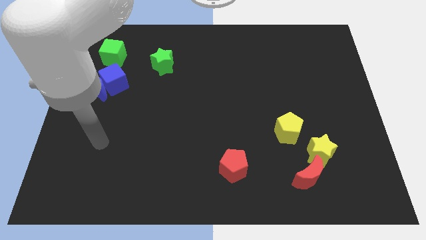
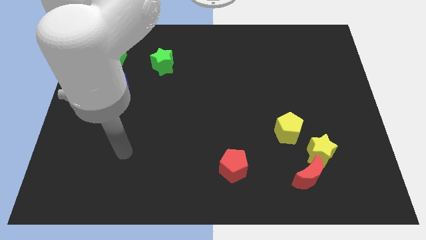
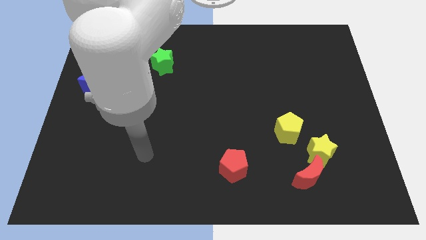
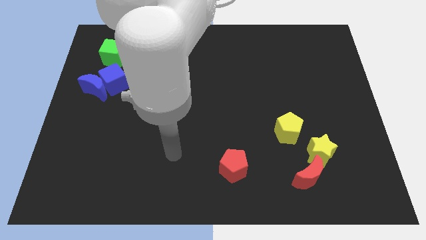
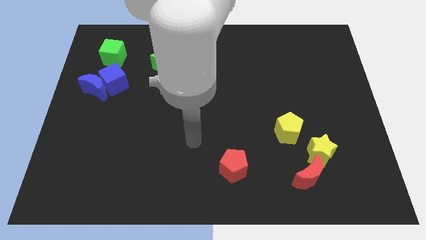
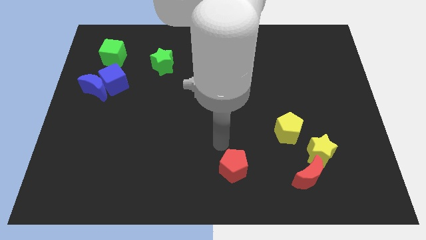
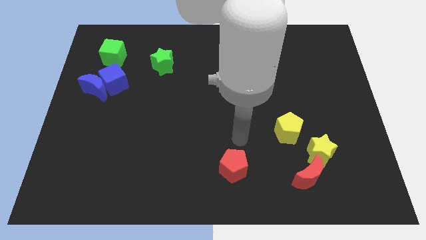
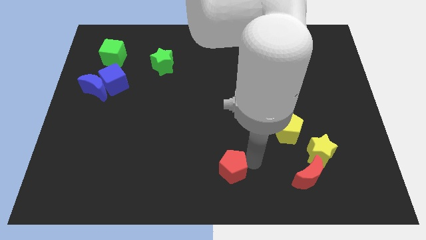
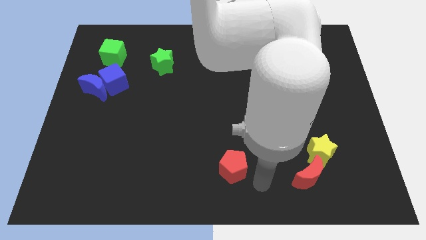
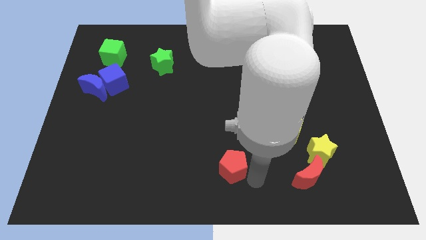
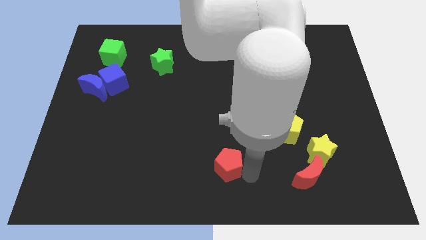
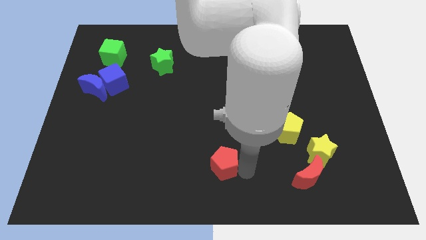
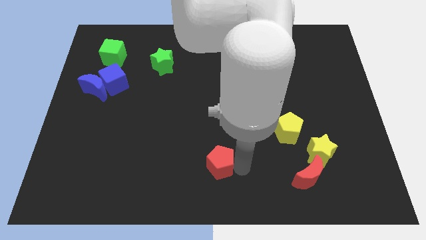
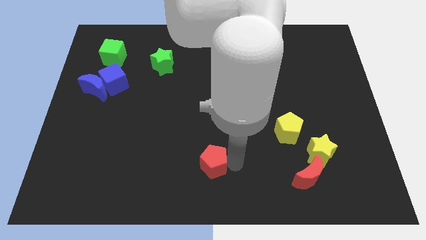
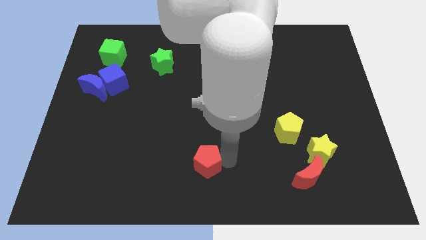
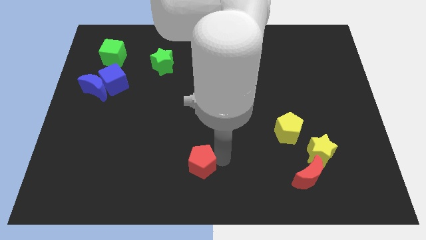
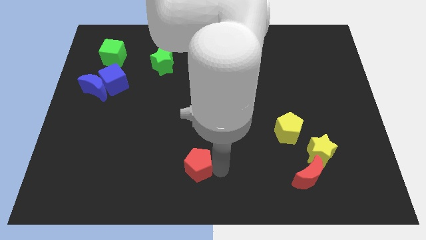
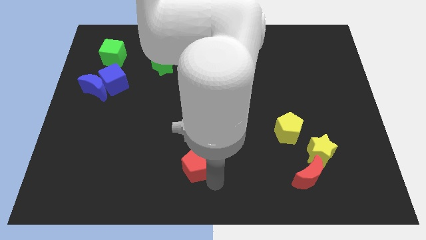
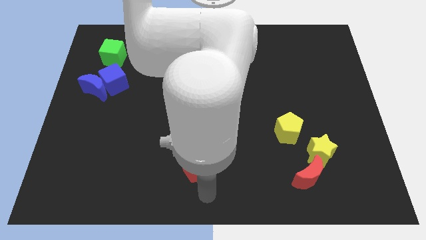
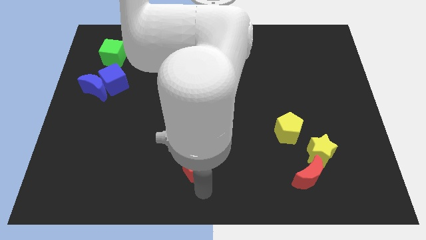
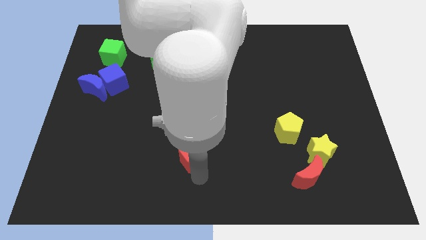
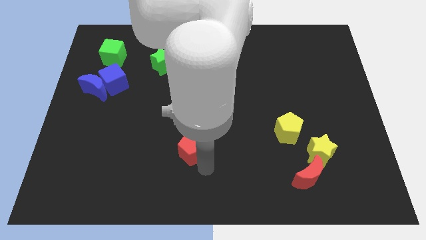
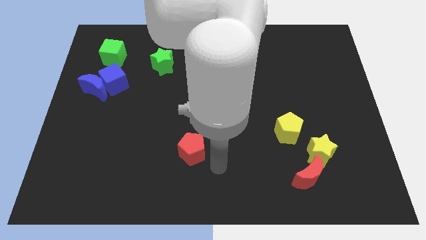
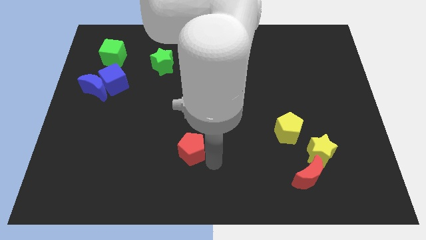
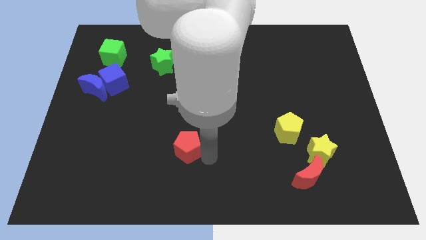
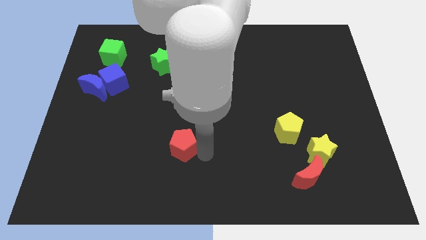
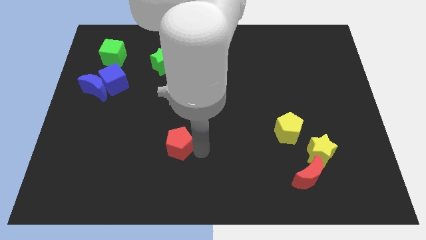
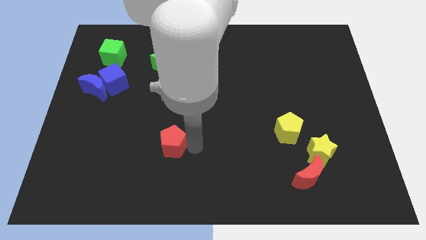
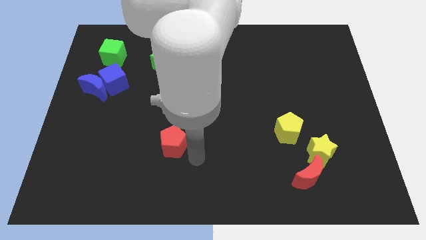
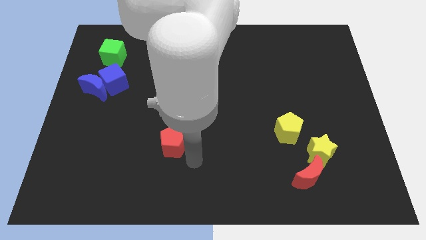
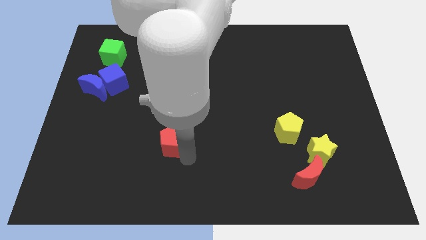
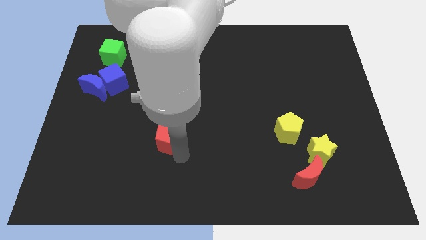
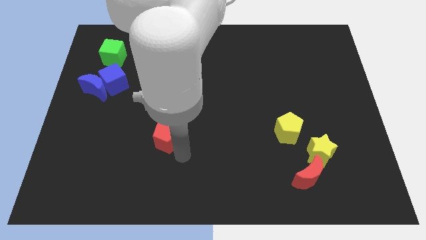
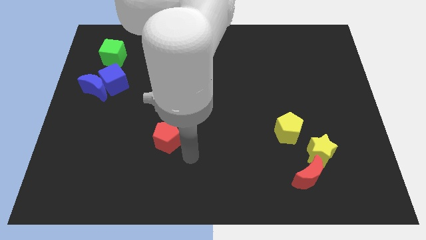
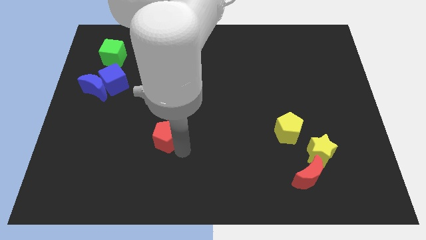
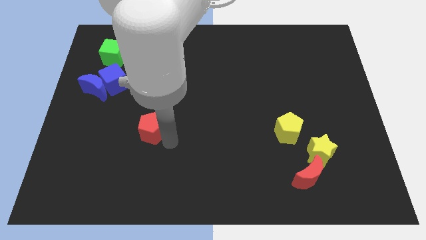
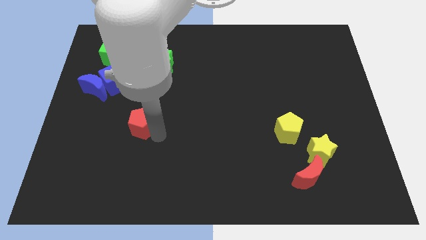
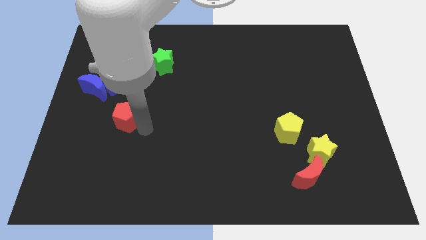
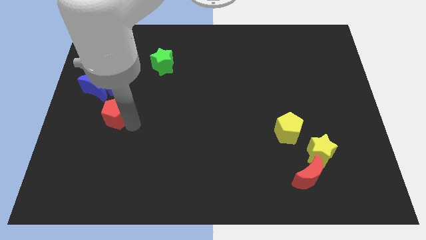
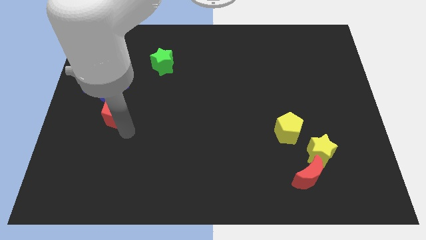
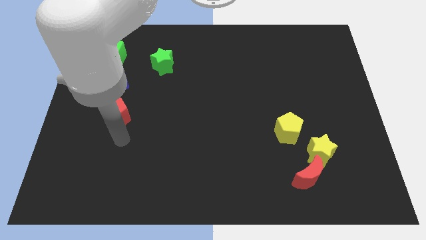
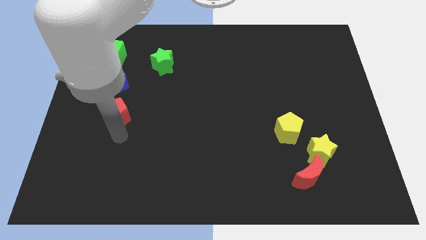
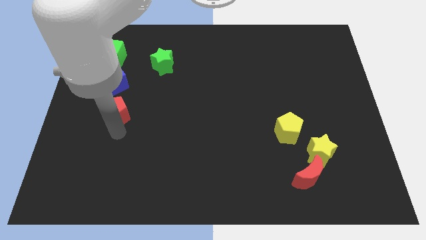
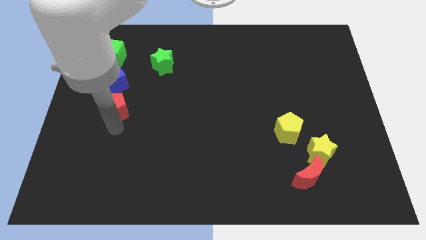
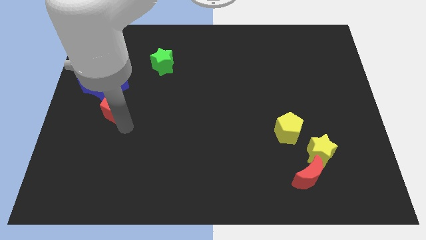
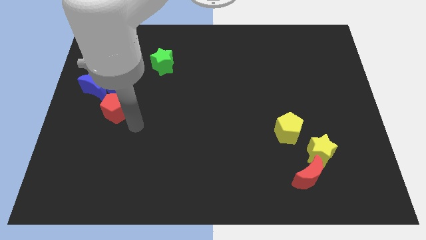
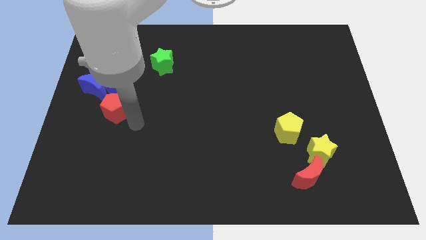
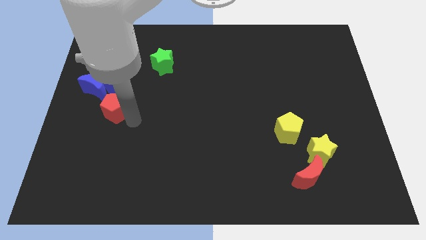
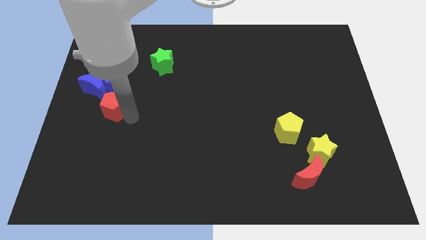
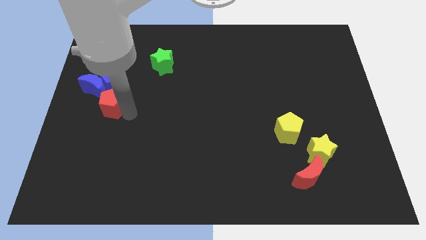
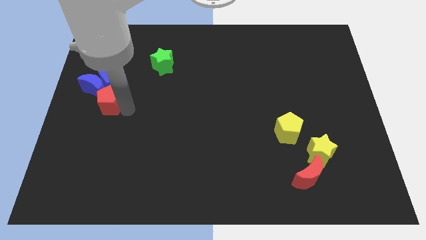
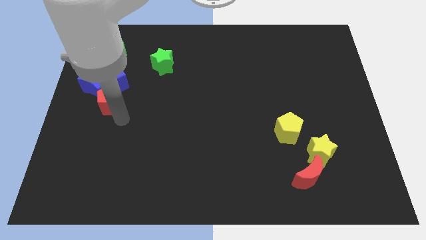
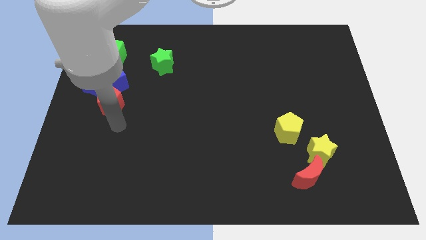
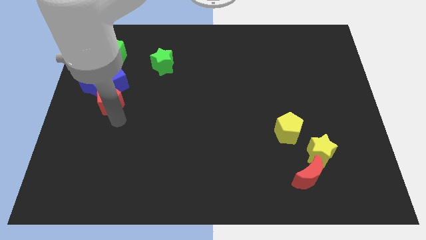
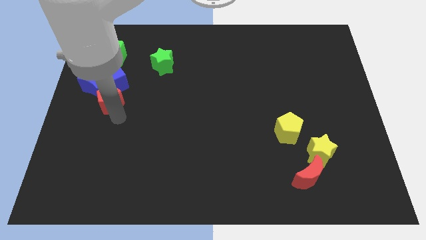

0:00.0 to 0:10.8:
put the red pentagon to the bottom side of the green cube

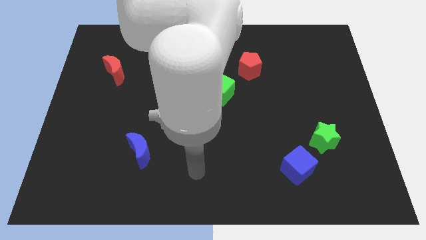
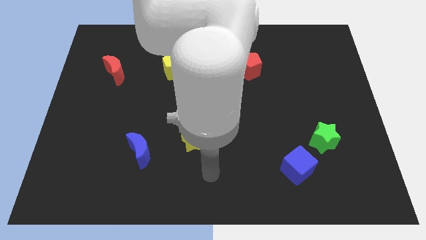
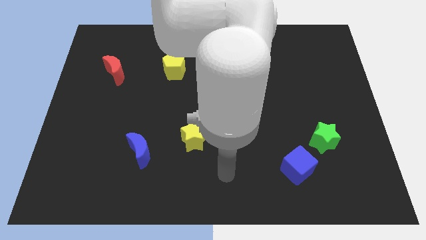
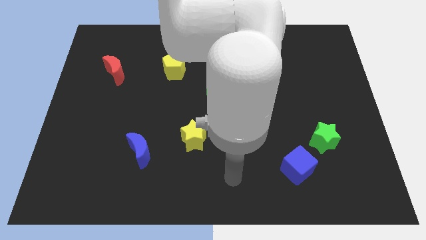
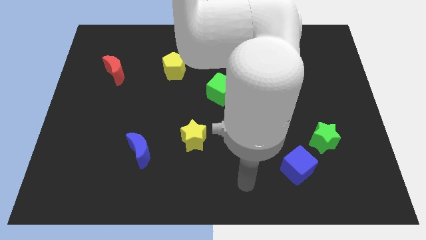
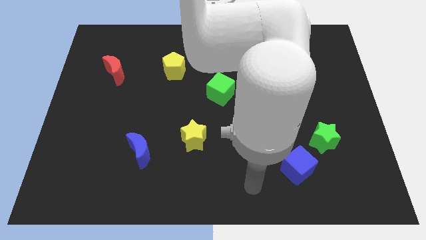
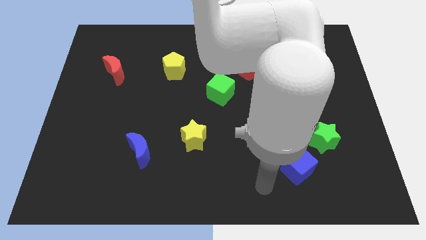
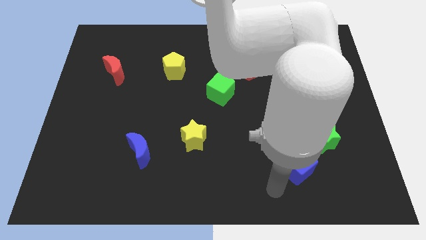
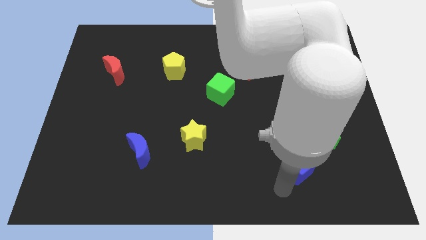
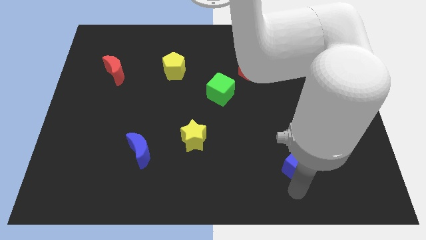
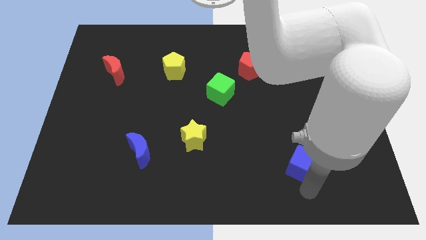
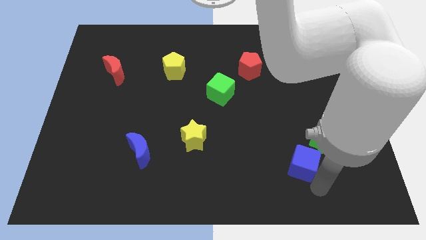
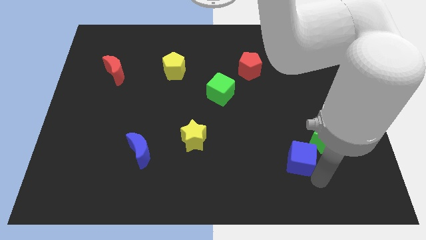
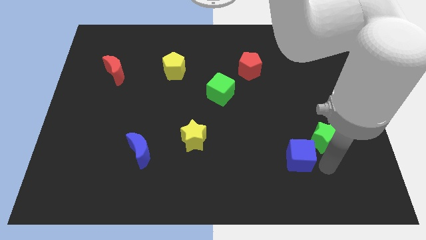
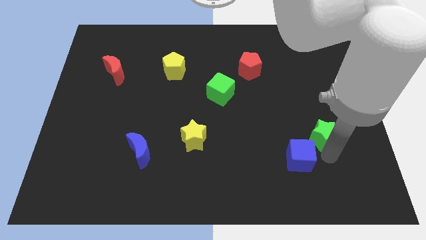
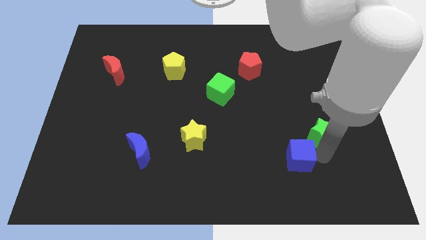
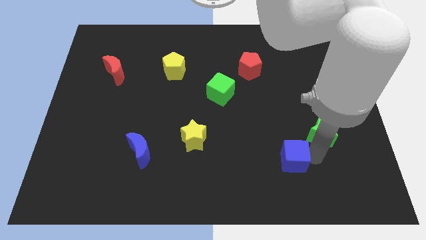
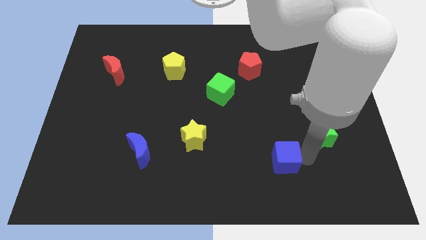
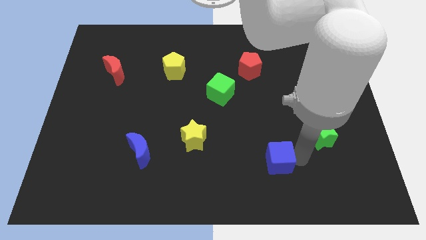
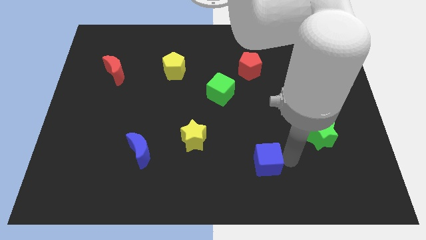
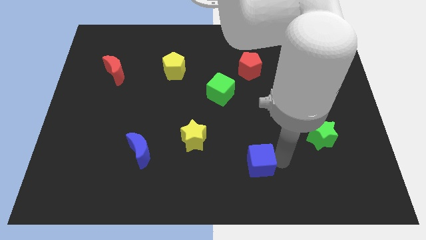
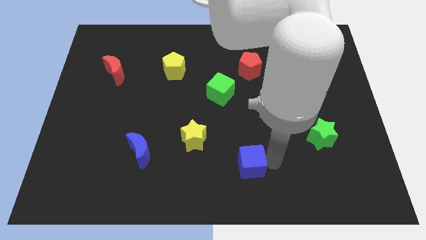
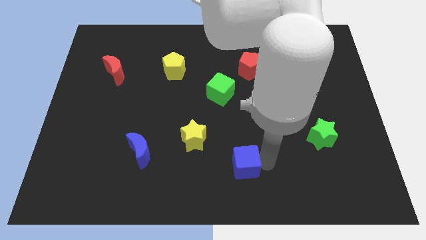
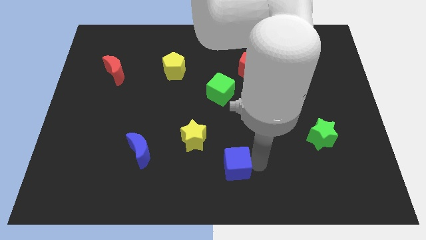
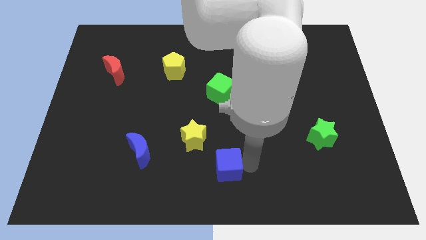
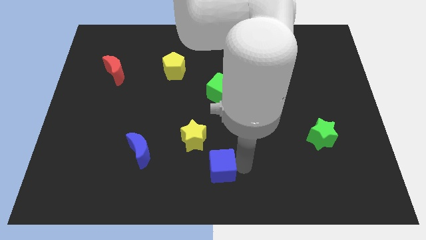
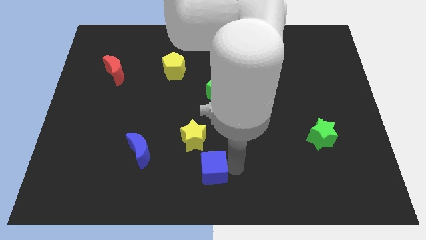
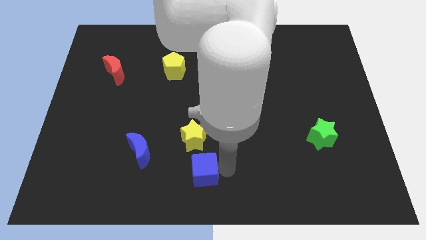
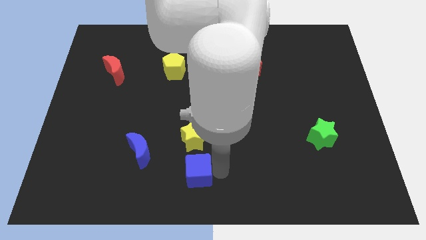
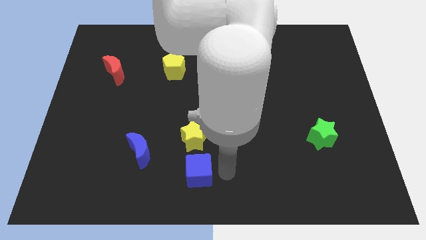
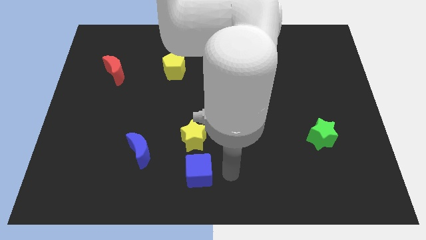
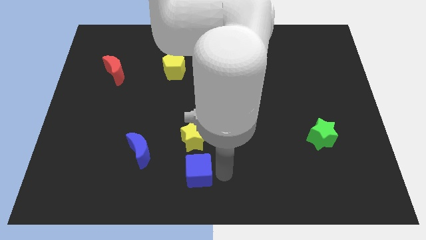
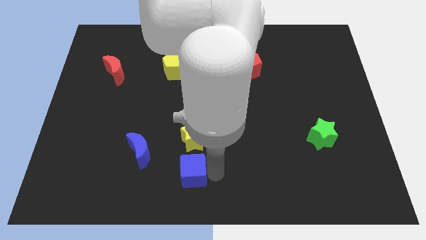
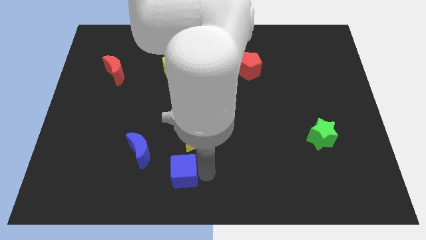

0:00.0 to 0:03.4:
slide the blue cube to the bottom right of the blue moon
